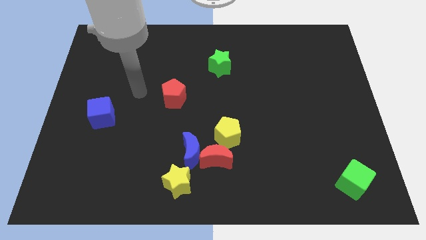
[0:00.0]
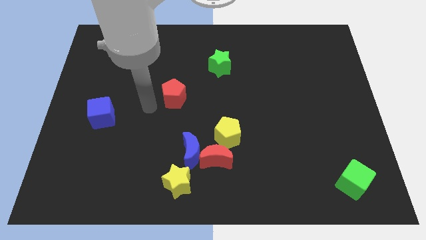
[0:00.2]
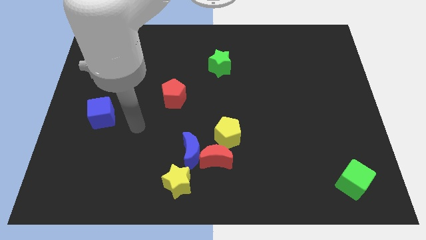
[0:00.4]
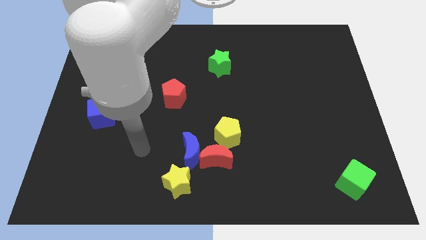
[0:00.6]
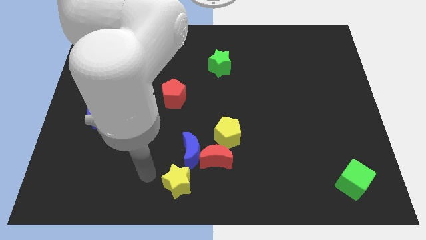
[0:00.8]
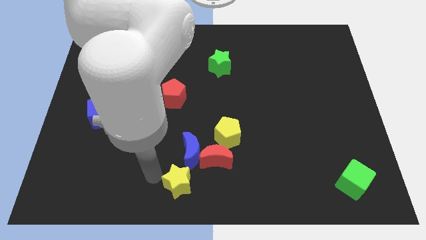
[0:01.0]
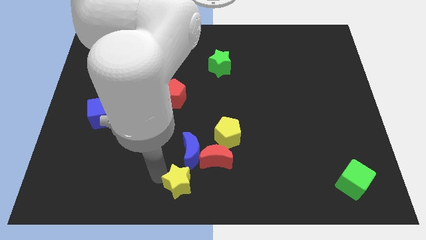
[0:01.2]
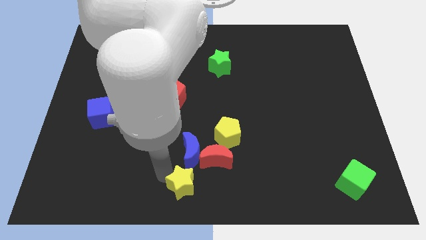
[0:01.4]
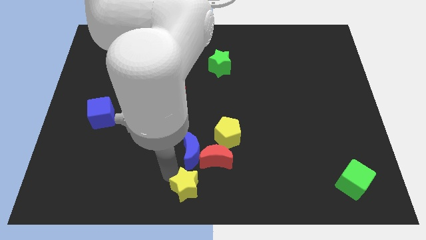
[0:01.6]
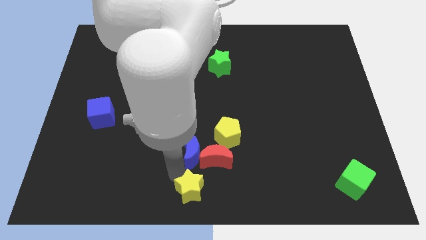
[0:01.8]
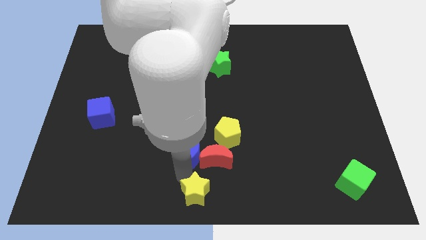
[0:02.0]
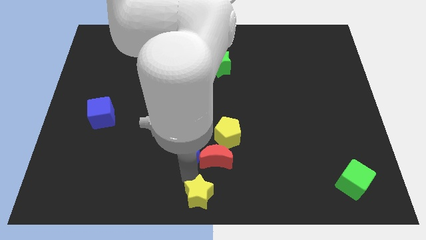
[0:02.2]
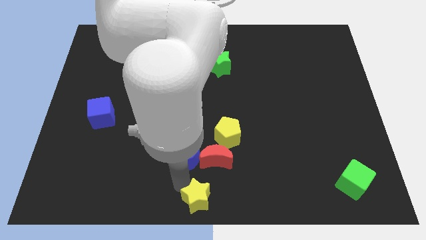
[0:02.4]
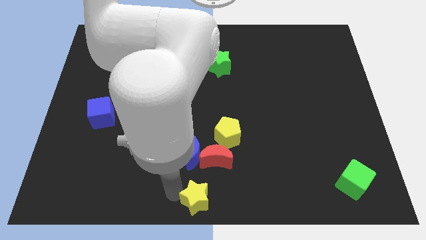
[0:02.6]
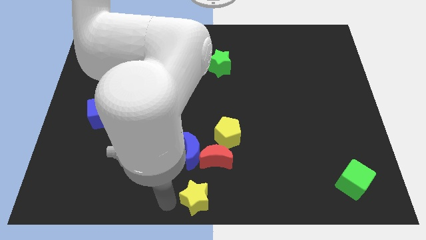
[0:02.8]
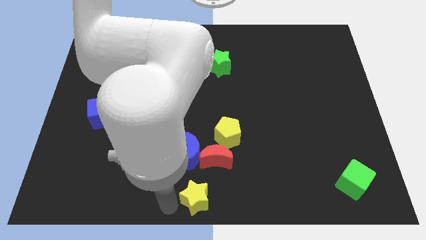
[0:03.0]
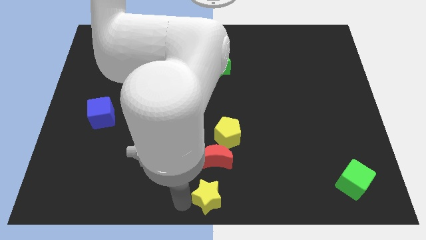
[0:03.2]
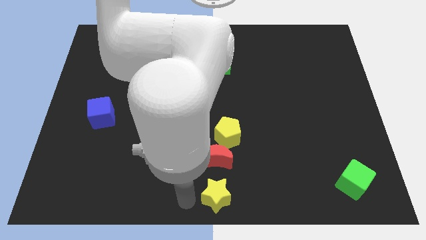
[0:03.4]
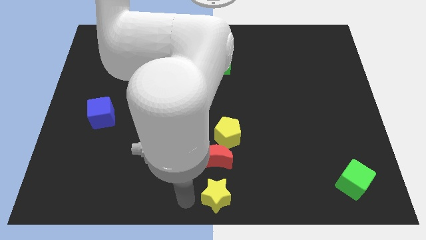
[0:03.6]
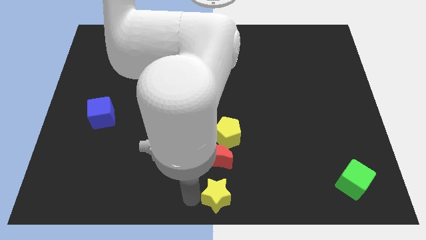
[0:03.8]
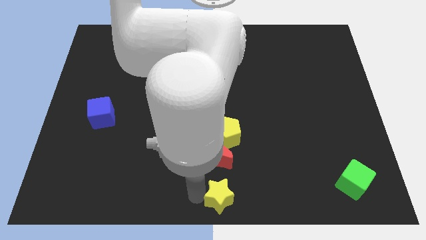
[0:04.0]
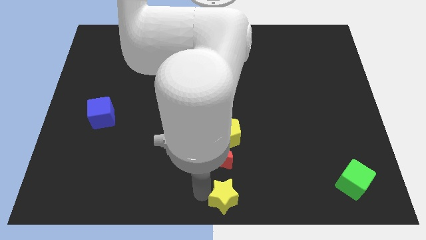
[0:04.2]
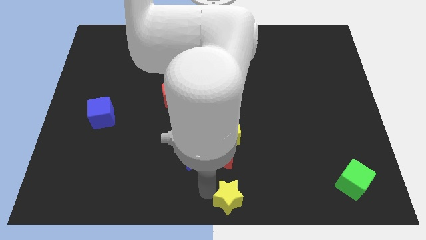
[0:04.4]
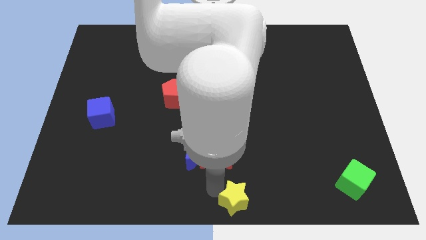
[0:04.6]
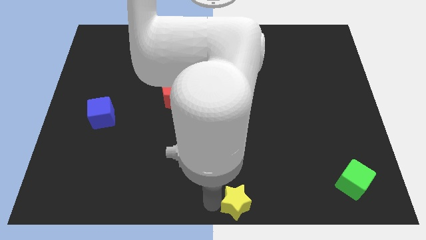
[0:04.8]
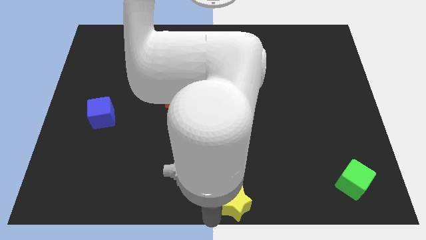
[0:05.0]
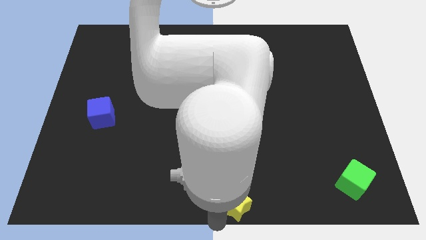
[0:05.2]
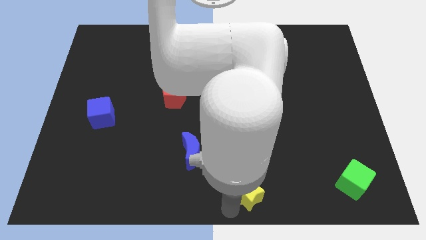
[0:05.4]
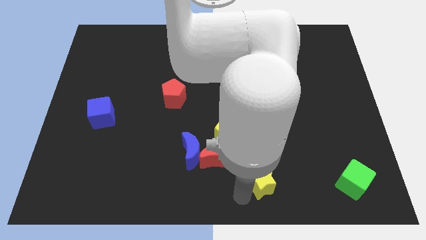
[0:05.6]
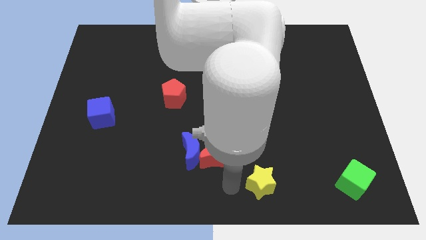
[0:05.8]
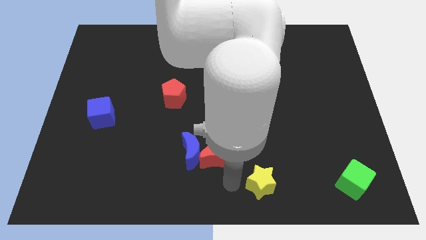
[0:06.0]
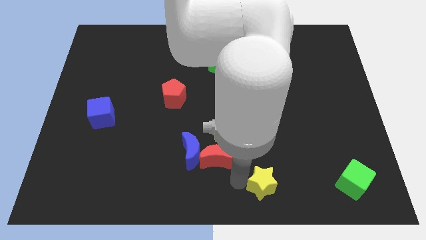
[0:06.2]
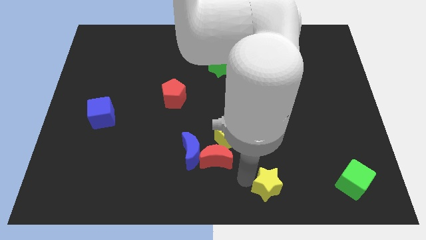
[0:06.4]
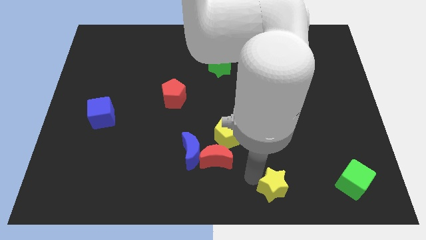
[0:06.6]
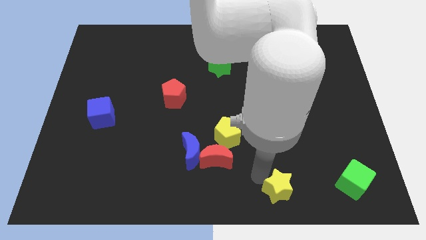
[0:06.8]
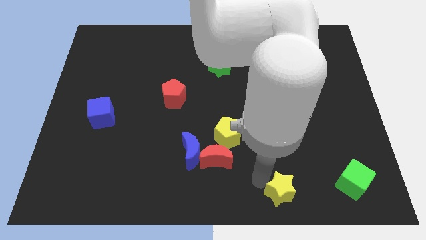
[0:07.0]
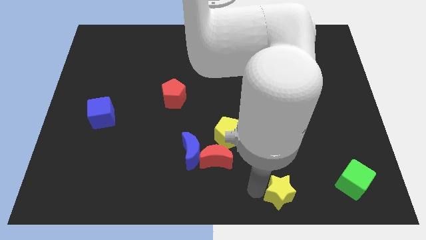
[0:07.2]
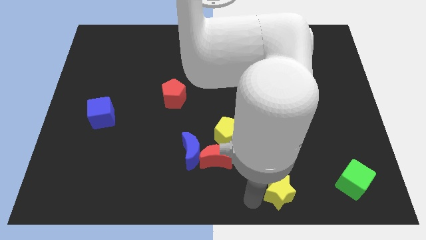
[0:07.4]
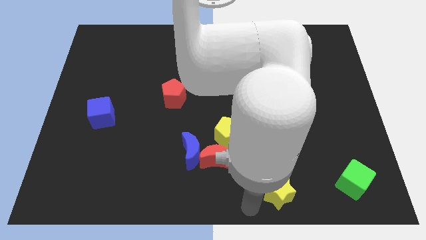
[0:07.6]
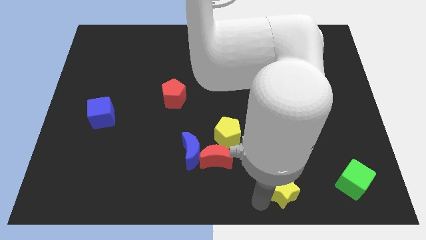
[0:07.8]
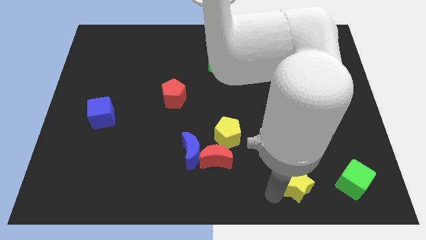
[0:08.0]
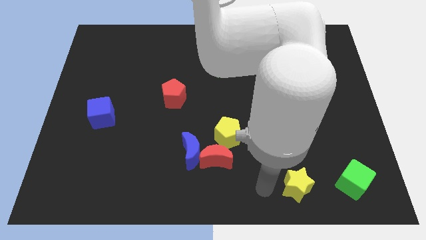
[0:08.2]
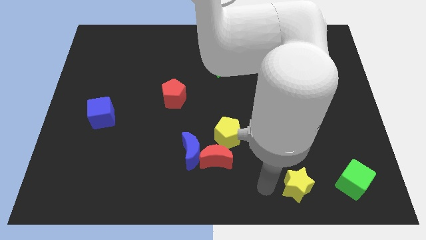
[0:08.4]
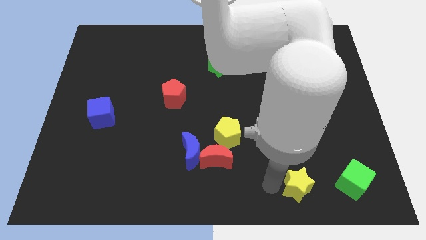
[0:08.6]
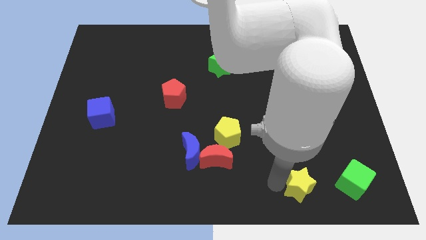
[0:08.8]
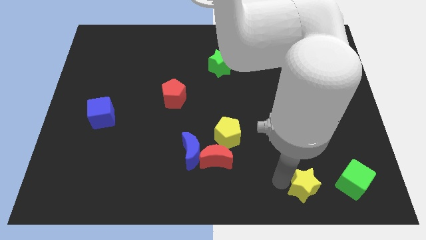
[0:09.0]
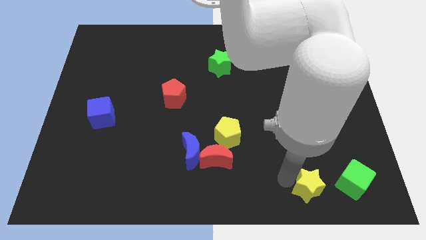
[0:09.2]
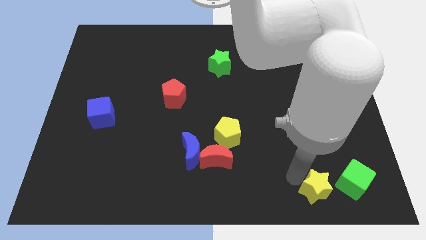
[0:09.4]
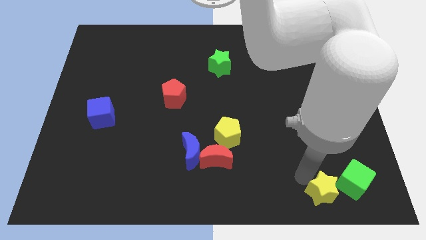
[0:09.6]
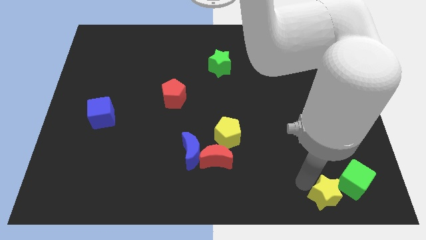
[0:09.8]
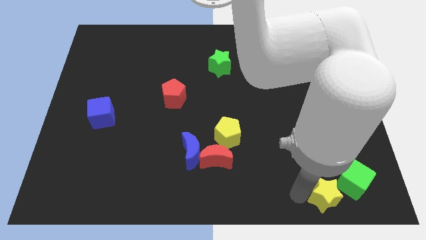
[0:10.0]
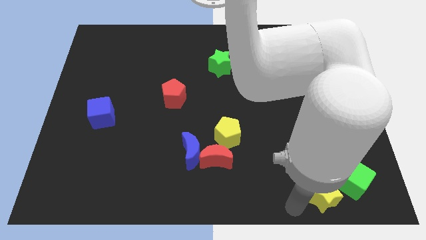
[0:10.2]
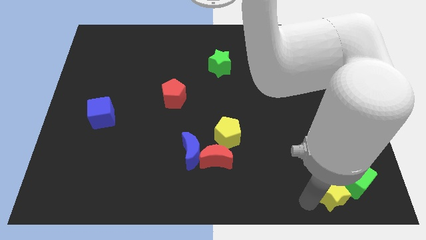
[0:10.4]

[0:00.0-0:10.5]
slide the yellow star to the green cube
